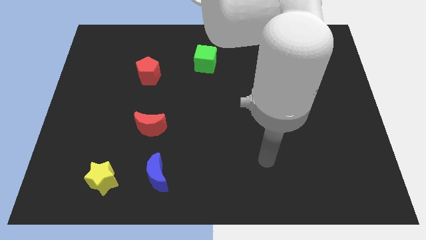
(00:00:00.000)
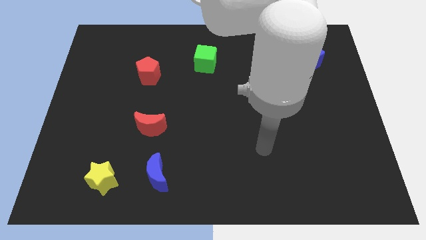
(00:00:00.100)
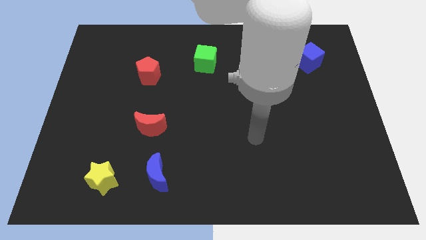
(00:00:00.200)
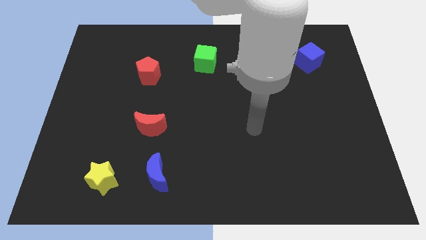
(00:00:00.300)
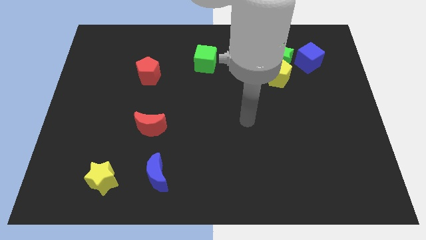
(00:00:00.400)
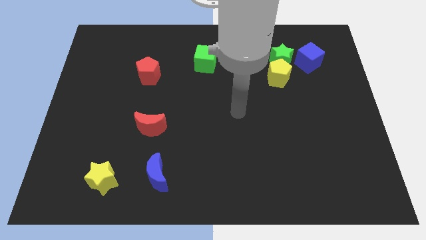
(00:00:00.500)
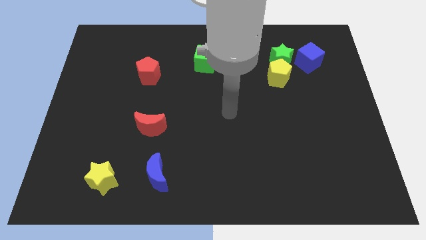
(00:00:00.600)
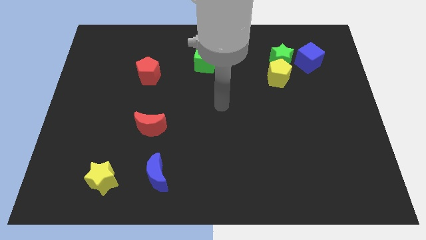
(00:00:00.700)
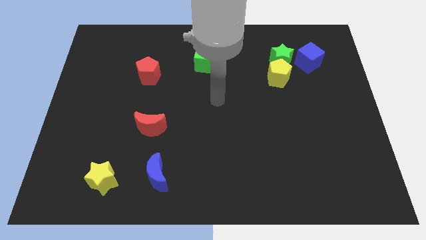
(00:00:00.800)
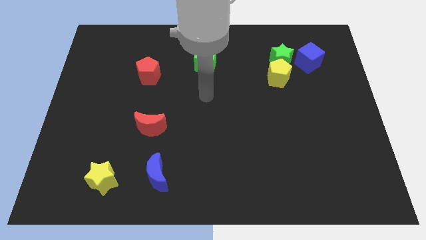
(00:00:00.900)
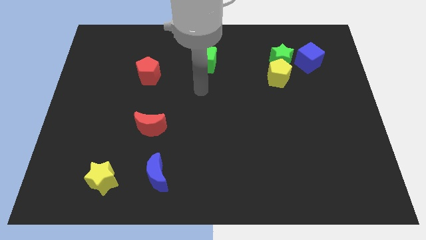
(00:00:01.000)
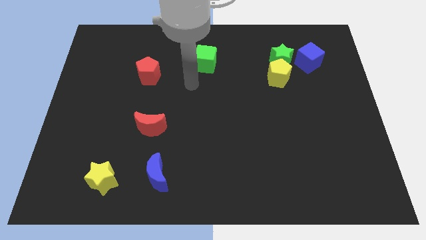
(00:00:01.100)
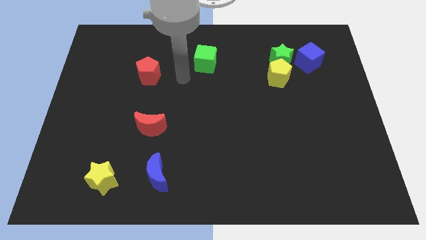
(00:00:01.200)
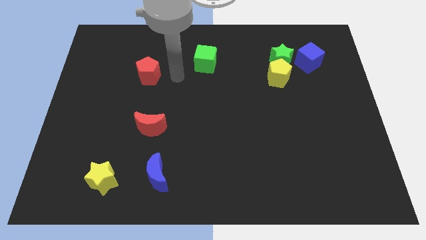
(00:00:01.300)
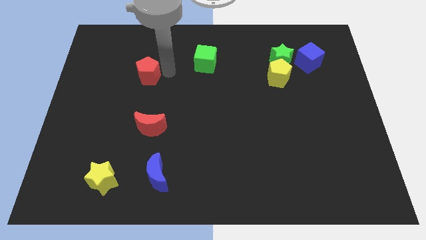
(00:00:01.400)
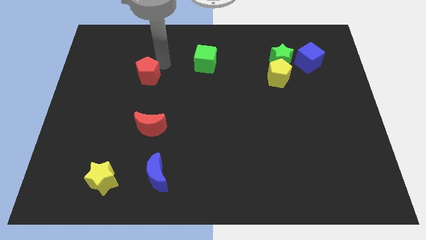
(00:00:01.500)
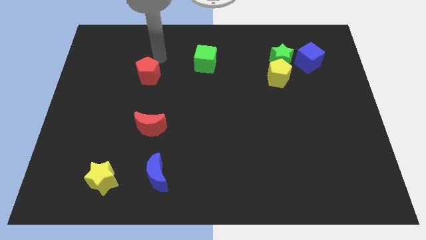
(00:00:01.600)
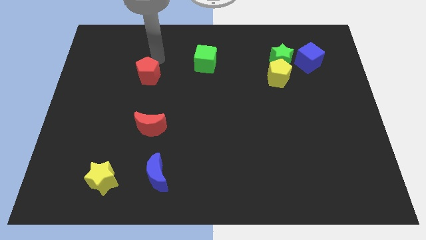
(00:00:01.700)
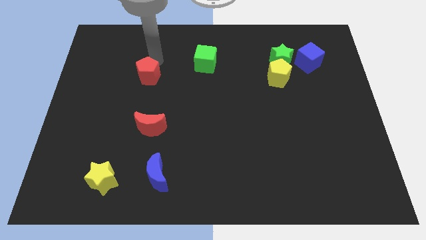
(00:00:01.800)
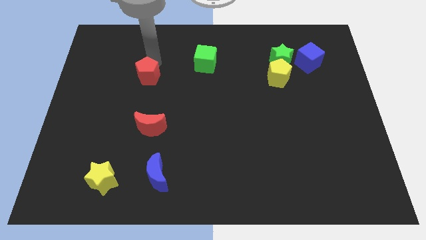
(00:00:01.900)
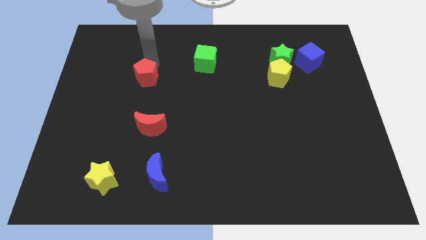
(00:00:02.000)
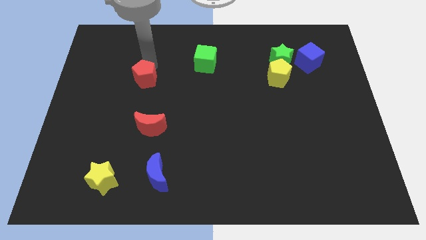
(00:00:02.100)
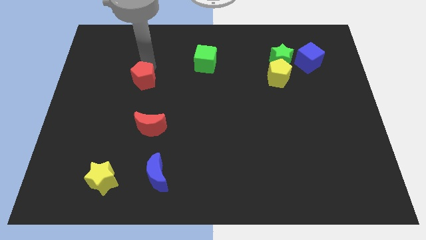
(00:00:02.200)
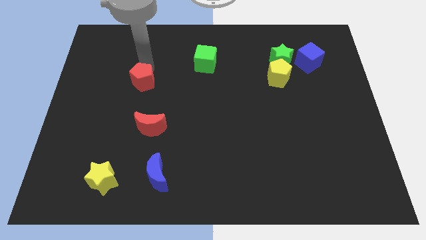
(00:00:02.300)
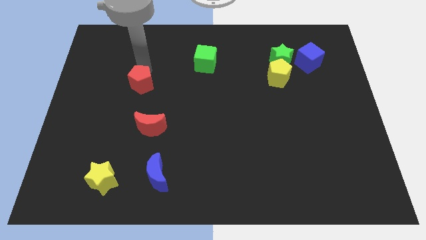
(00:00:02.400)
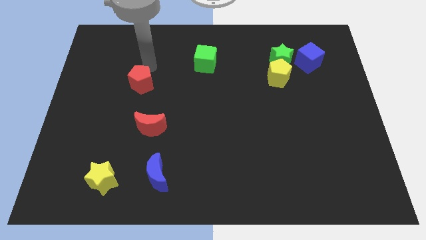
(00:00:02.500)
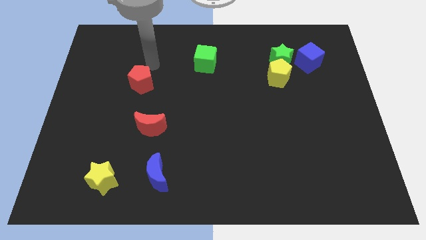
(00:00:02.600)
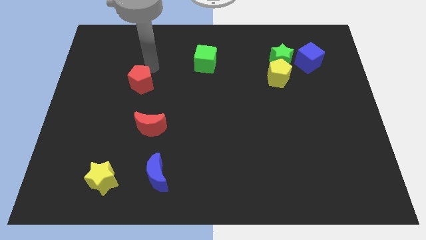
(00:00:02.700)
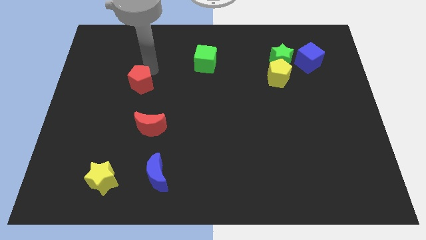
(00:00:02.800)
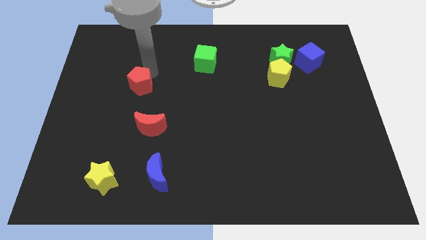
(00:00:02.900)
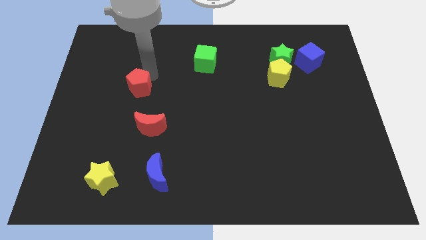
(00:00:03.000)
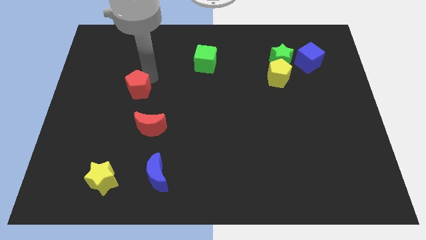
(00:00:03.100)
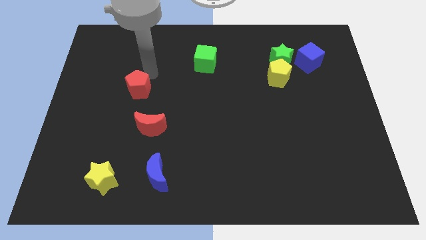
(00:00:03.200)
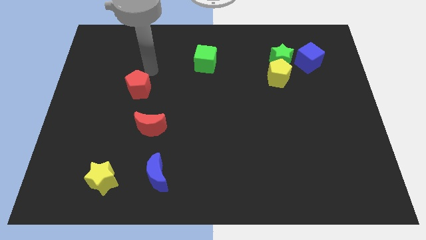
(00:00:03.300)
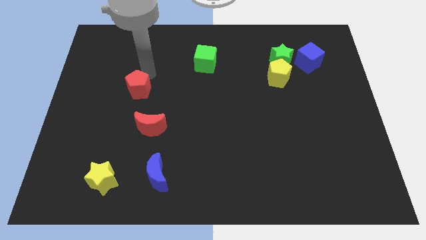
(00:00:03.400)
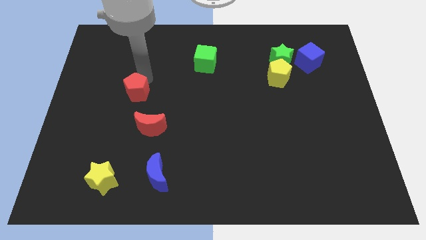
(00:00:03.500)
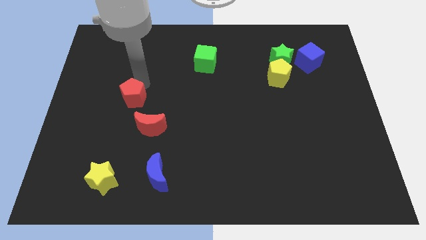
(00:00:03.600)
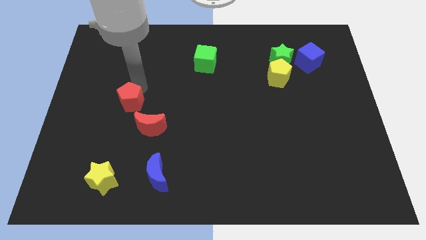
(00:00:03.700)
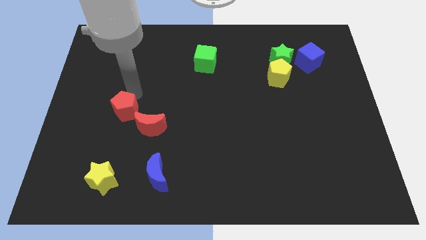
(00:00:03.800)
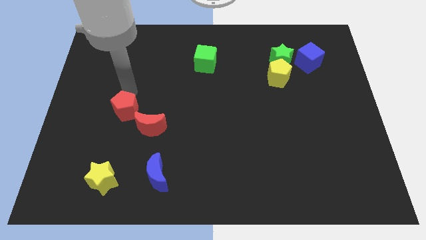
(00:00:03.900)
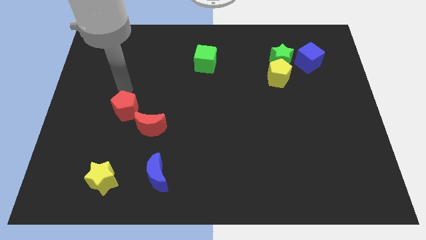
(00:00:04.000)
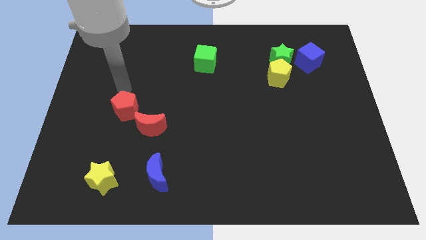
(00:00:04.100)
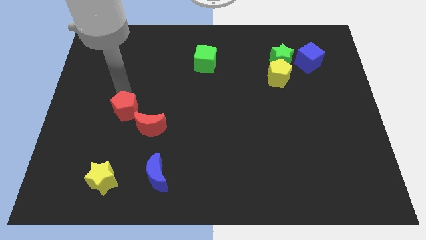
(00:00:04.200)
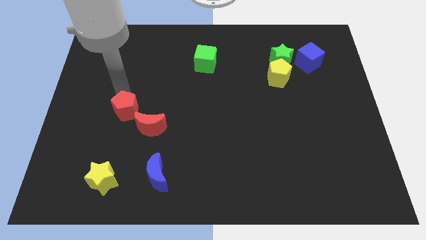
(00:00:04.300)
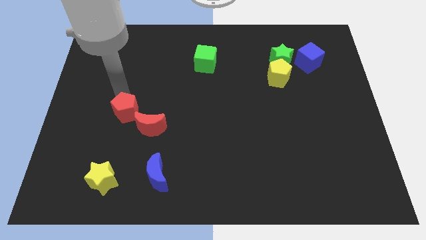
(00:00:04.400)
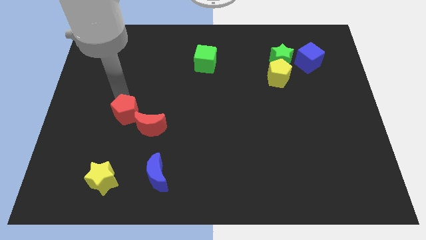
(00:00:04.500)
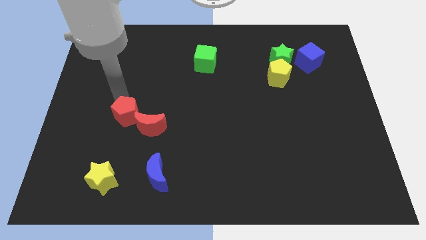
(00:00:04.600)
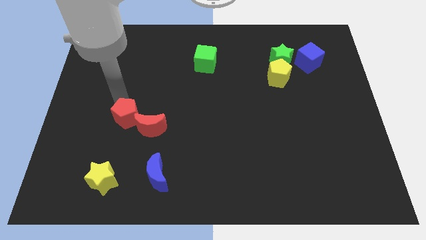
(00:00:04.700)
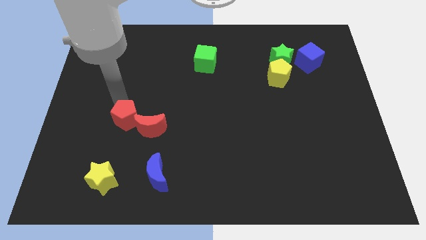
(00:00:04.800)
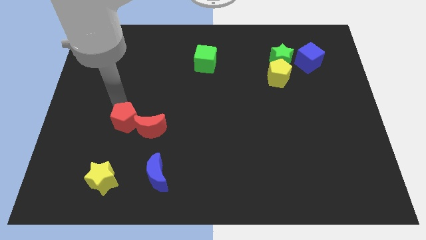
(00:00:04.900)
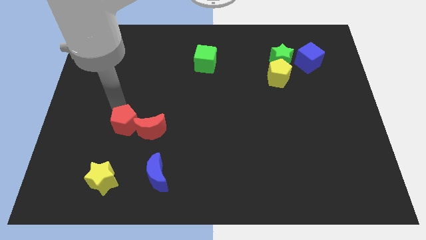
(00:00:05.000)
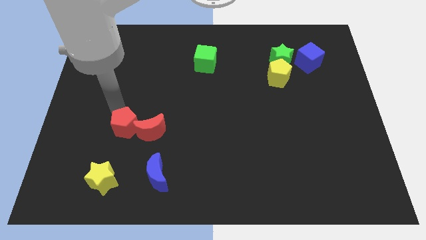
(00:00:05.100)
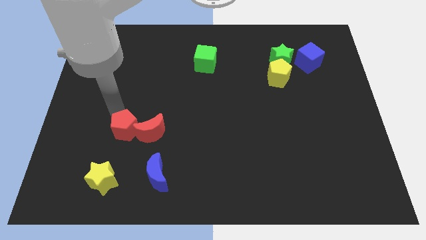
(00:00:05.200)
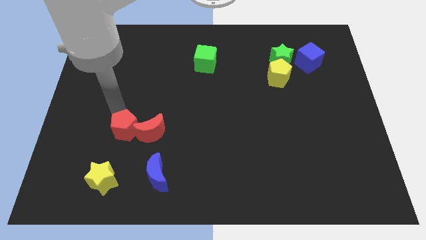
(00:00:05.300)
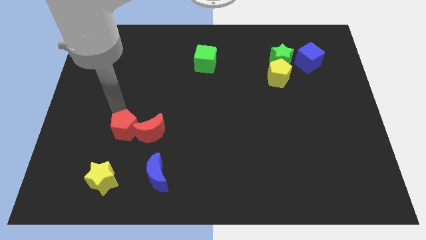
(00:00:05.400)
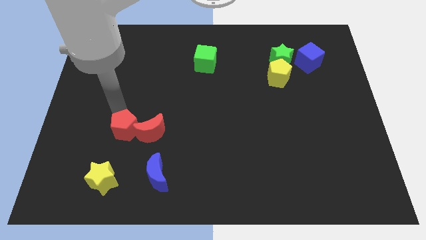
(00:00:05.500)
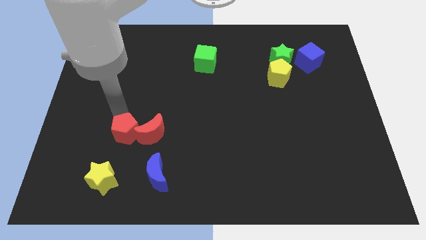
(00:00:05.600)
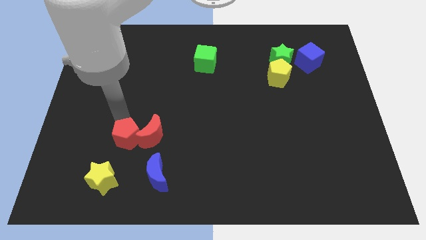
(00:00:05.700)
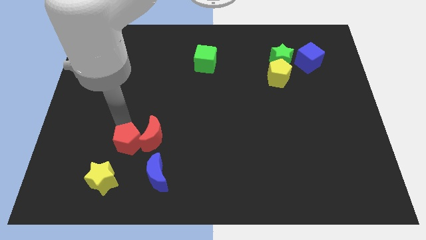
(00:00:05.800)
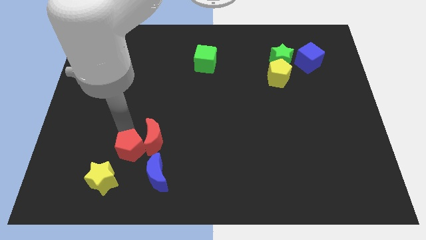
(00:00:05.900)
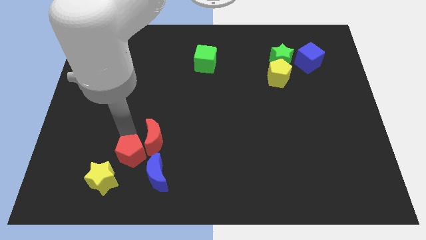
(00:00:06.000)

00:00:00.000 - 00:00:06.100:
move the red pentagon below the red moon

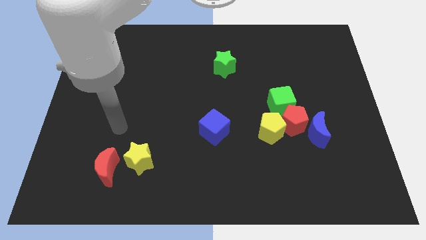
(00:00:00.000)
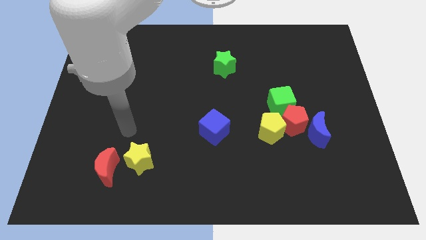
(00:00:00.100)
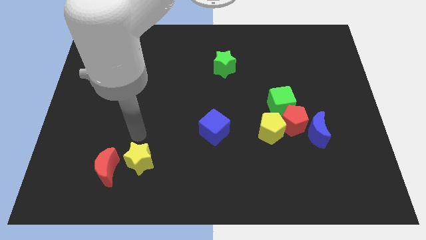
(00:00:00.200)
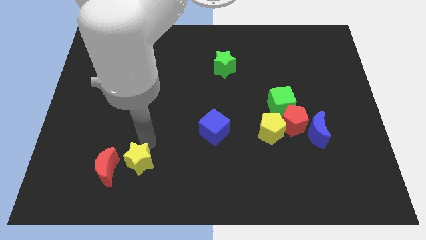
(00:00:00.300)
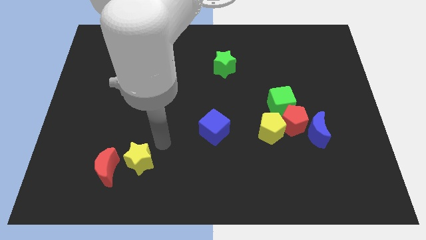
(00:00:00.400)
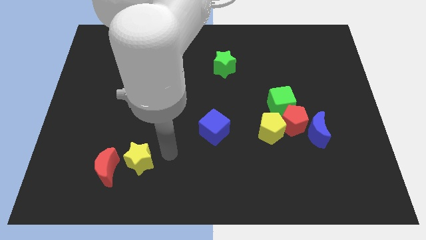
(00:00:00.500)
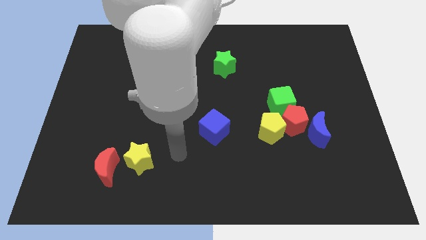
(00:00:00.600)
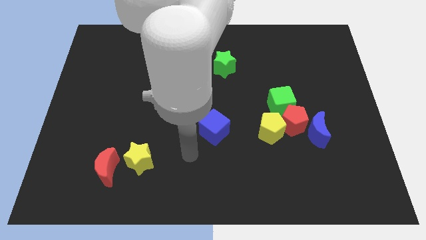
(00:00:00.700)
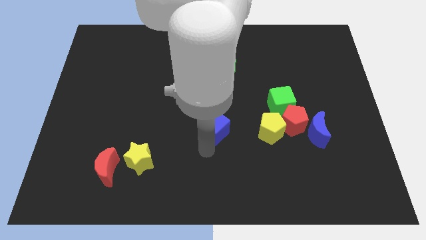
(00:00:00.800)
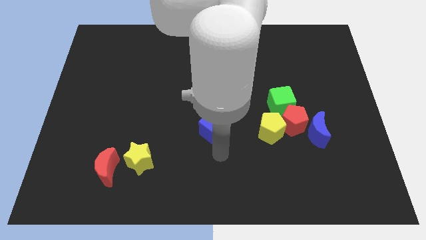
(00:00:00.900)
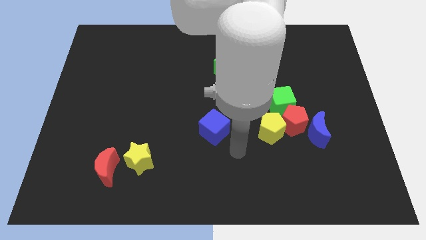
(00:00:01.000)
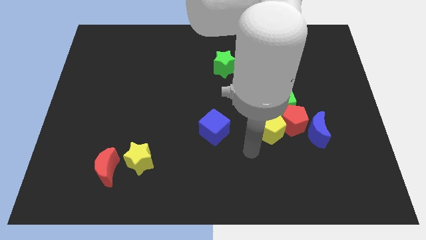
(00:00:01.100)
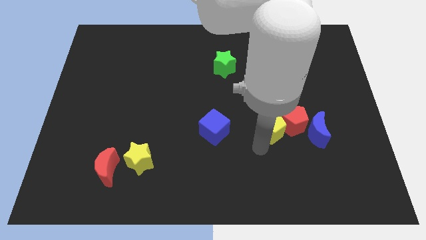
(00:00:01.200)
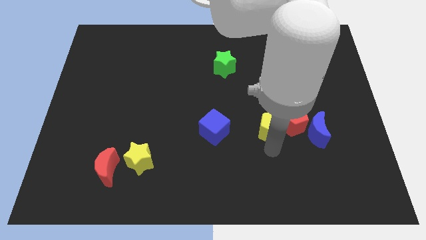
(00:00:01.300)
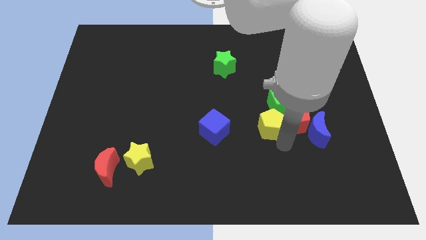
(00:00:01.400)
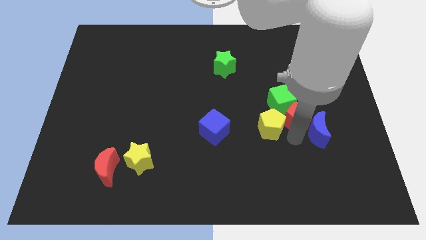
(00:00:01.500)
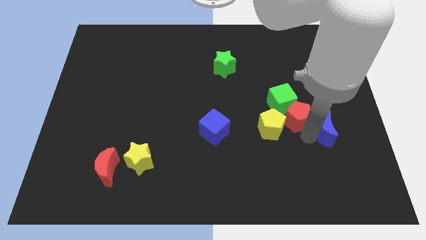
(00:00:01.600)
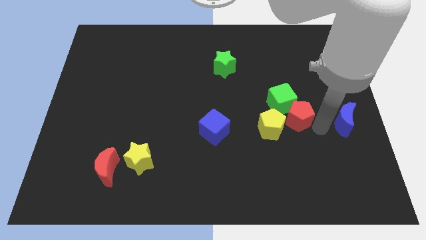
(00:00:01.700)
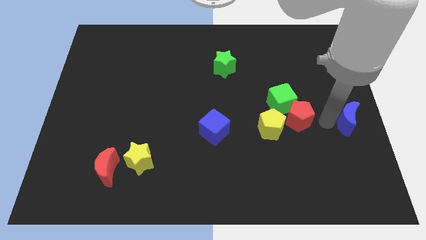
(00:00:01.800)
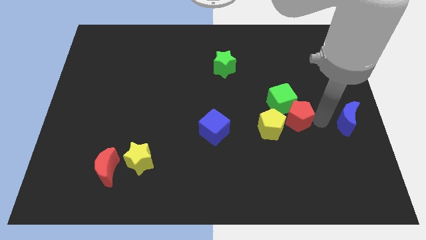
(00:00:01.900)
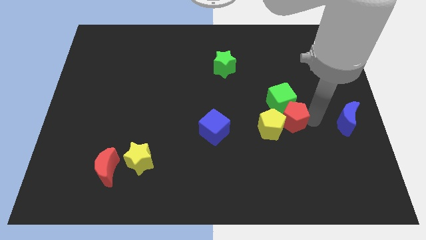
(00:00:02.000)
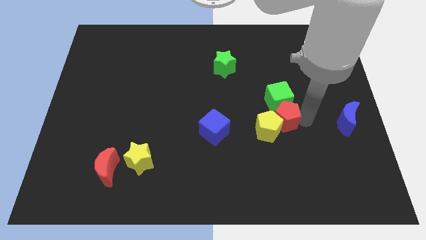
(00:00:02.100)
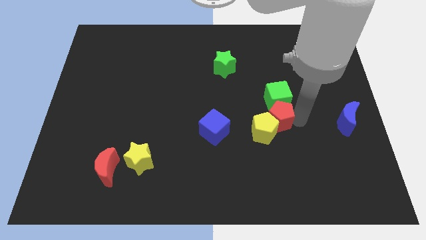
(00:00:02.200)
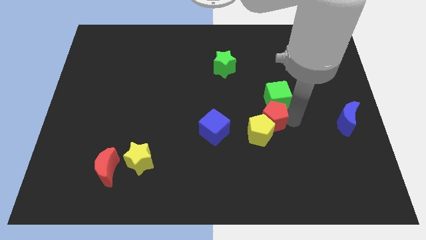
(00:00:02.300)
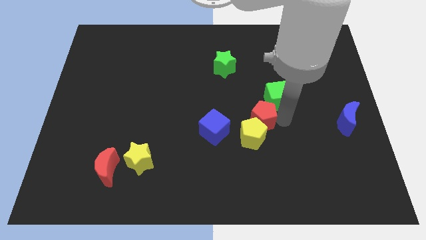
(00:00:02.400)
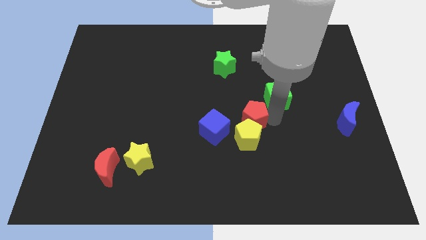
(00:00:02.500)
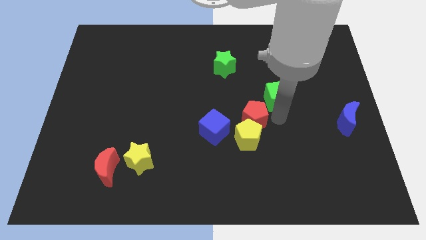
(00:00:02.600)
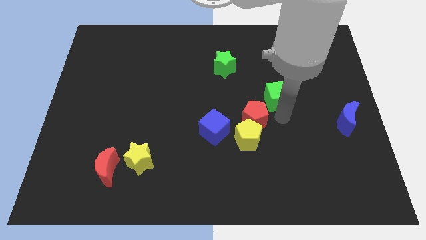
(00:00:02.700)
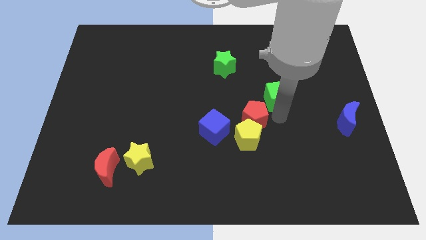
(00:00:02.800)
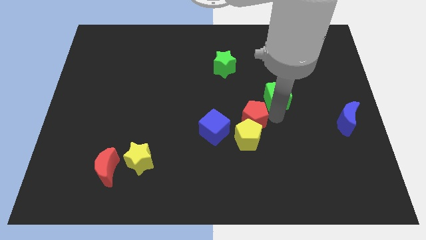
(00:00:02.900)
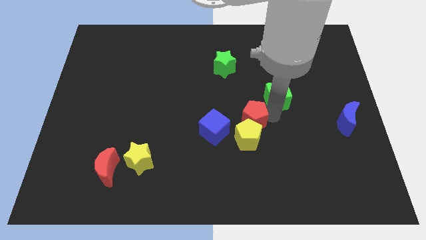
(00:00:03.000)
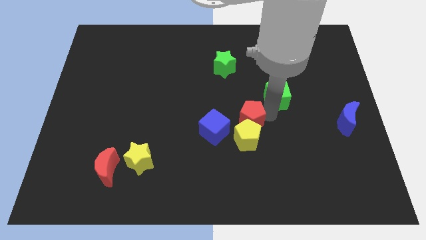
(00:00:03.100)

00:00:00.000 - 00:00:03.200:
move the red pentagon diagonally up and to the left of the yellow pentagon
